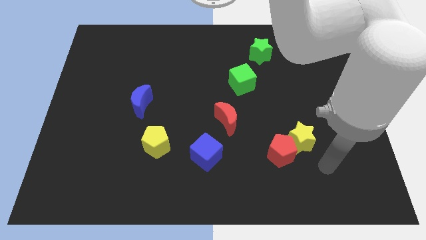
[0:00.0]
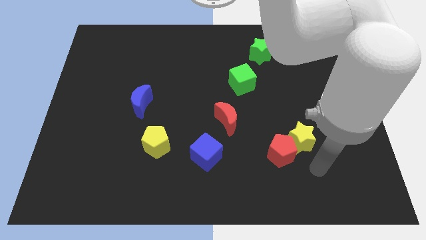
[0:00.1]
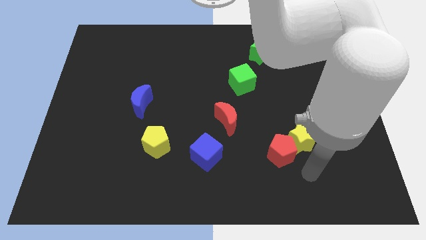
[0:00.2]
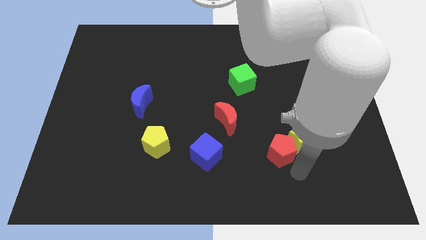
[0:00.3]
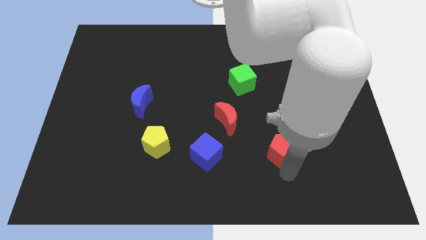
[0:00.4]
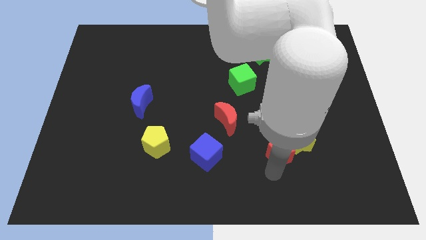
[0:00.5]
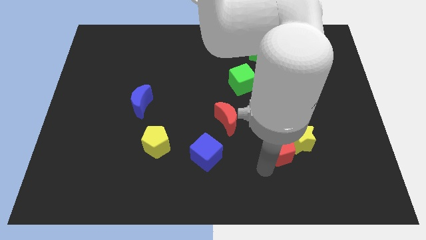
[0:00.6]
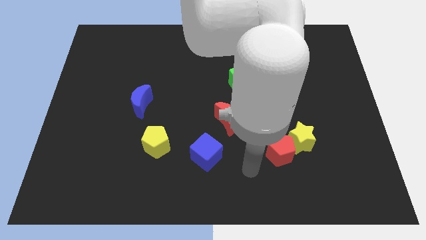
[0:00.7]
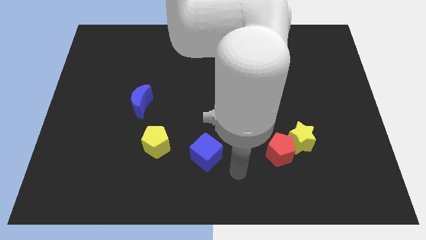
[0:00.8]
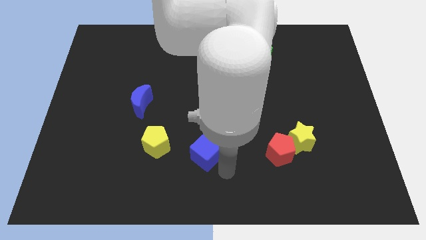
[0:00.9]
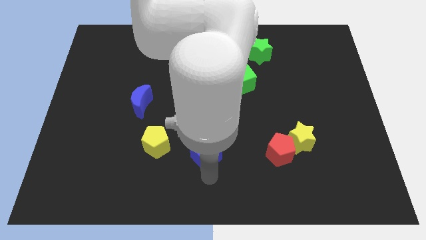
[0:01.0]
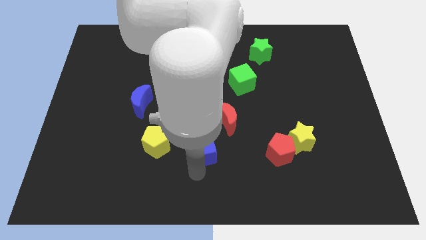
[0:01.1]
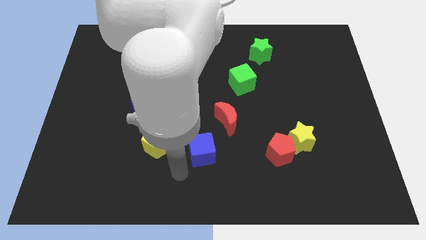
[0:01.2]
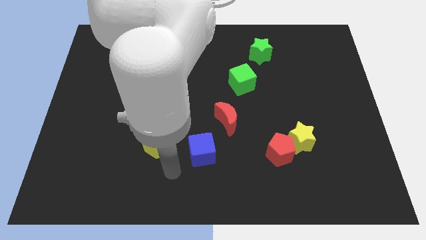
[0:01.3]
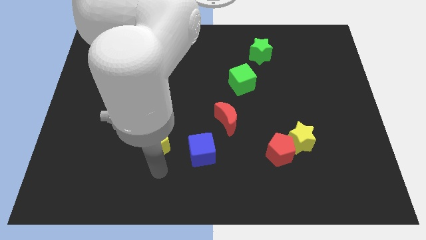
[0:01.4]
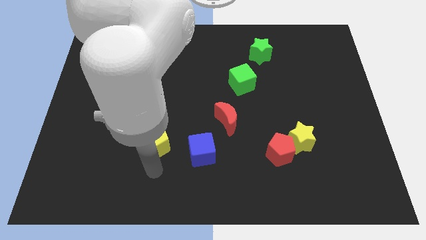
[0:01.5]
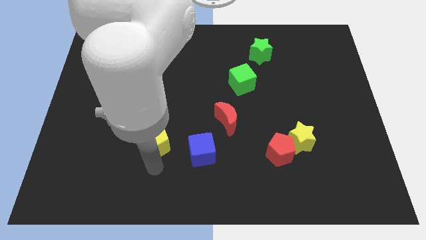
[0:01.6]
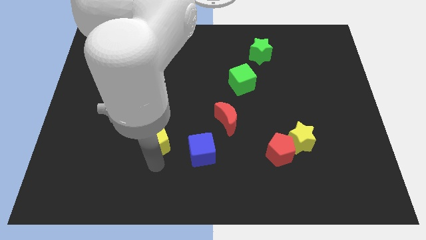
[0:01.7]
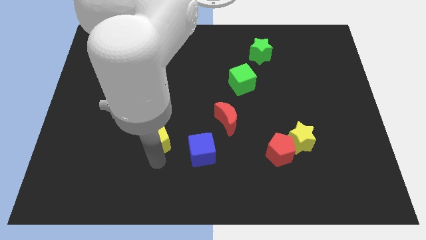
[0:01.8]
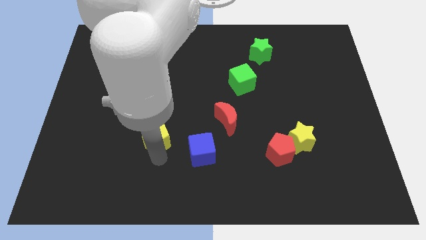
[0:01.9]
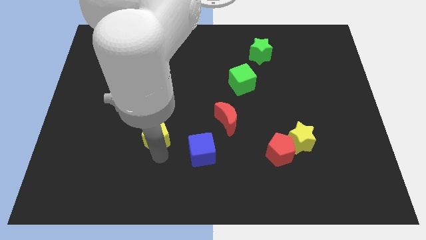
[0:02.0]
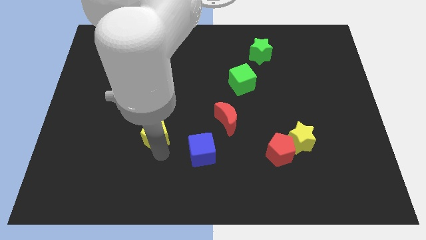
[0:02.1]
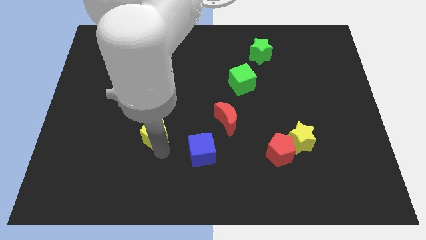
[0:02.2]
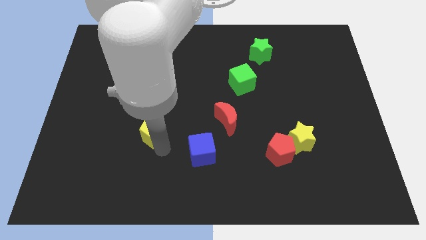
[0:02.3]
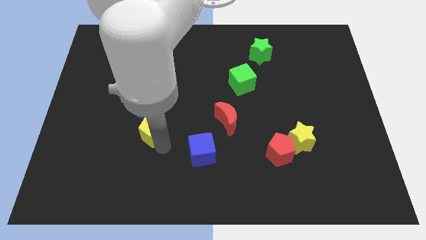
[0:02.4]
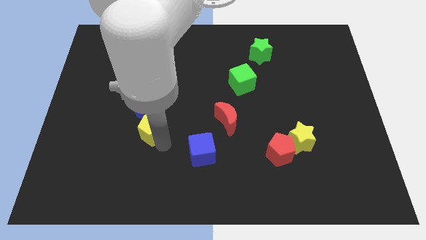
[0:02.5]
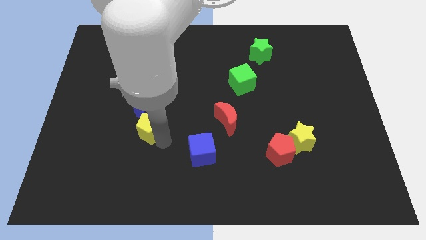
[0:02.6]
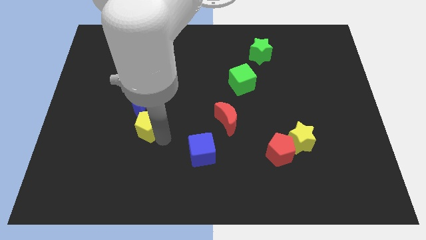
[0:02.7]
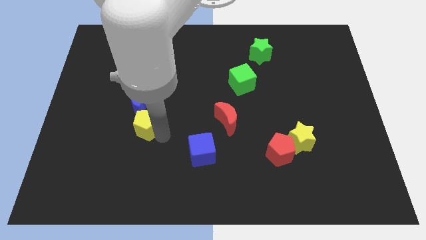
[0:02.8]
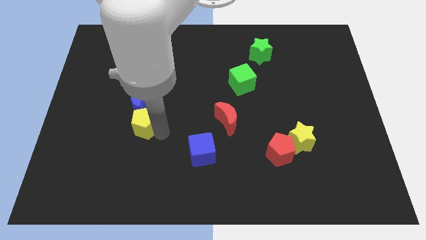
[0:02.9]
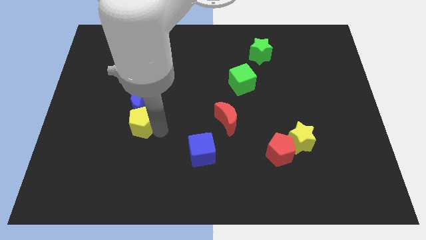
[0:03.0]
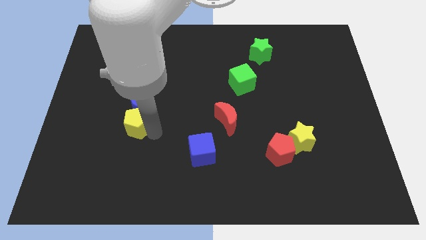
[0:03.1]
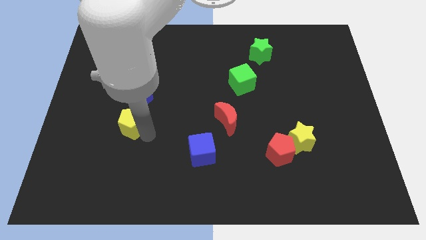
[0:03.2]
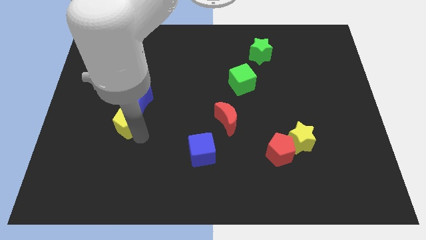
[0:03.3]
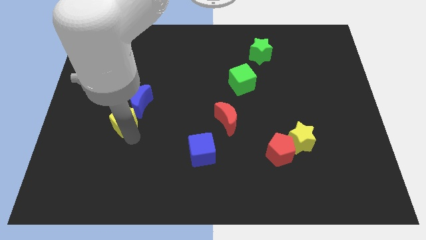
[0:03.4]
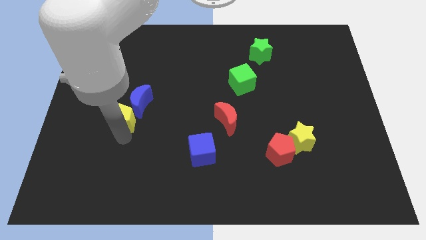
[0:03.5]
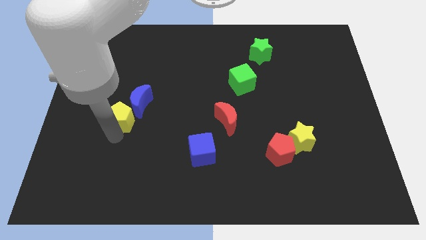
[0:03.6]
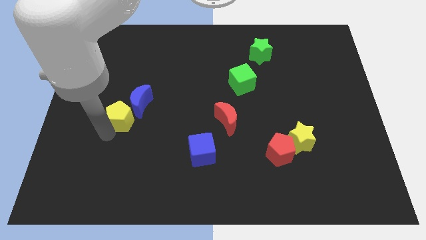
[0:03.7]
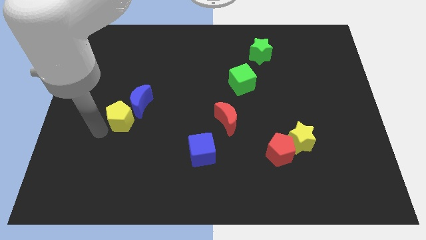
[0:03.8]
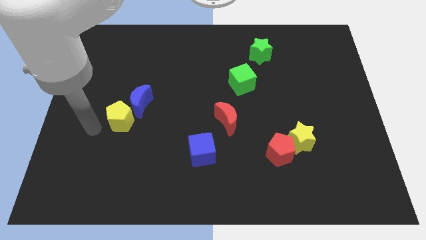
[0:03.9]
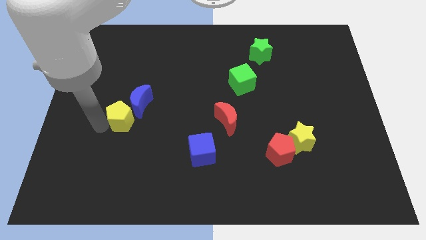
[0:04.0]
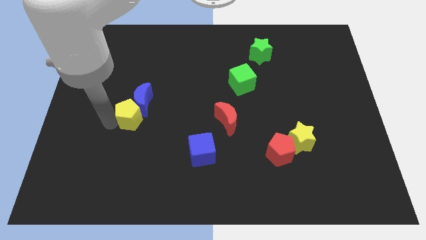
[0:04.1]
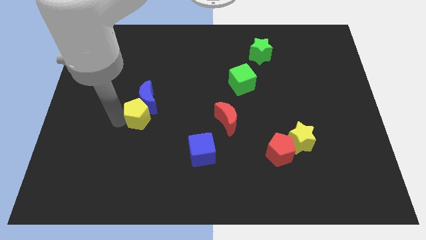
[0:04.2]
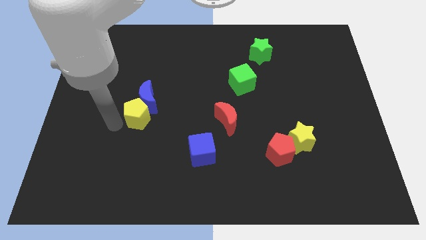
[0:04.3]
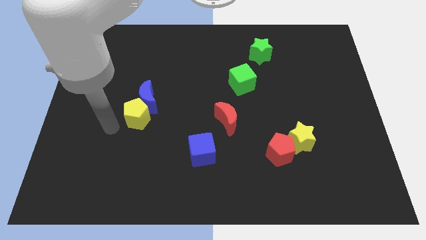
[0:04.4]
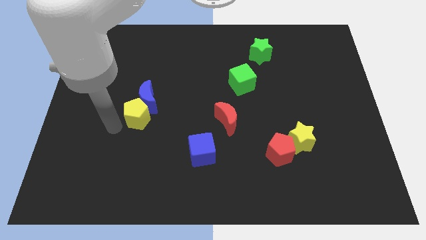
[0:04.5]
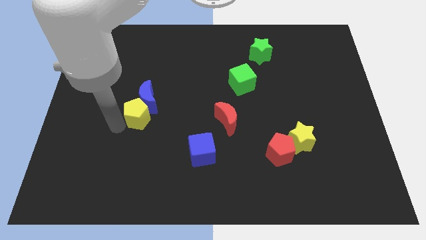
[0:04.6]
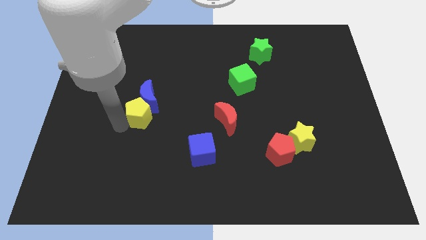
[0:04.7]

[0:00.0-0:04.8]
move the yellow pentagon up somewhat

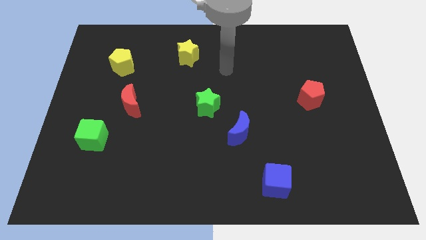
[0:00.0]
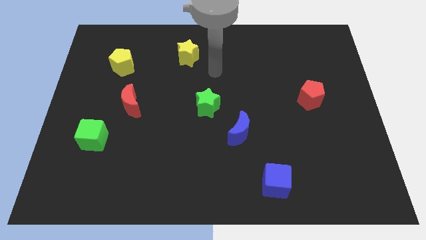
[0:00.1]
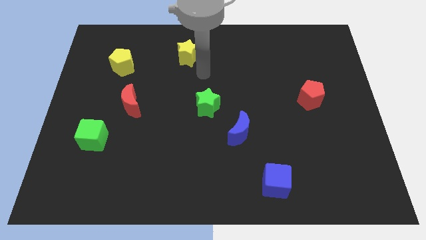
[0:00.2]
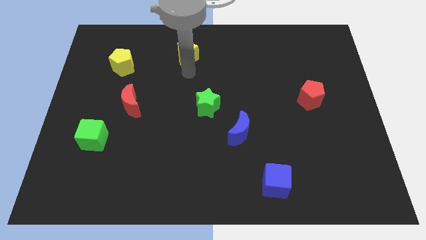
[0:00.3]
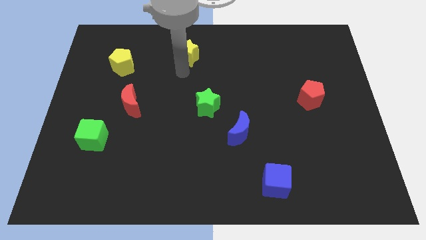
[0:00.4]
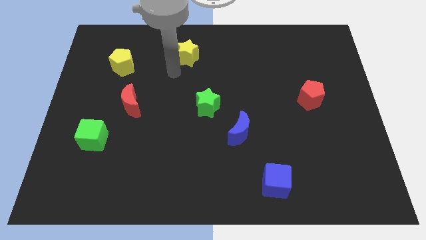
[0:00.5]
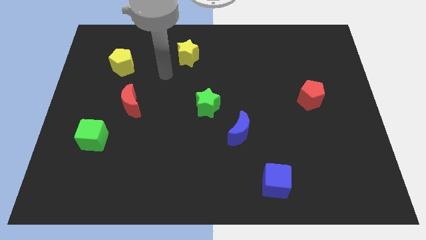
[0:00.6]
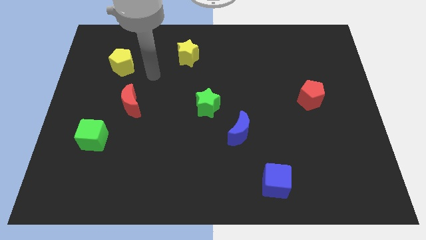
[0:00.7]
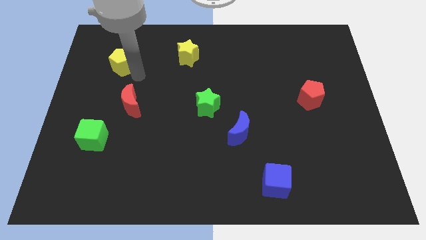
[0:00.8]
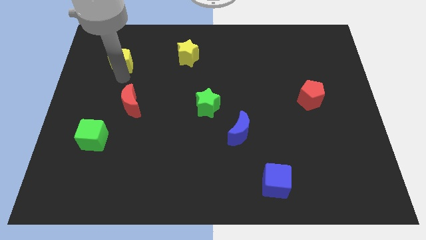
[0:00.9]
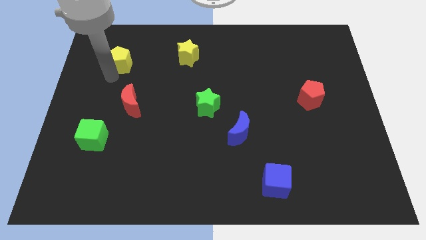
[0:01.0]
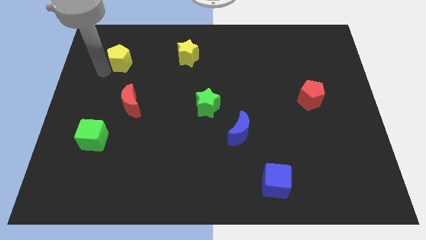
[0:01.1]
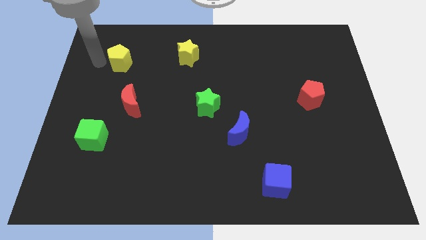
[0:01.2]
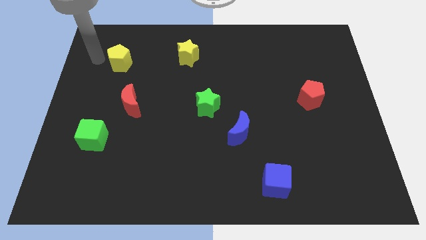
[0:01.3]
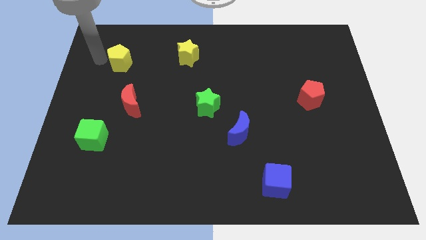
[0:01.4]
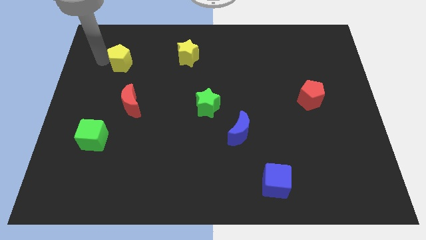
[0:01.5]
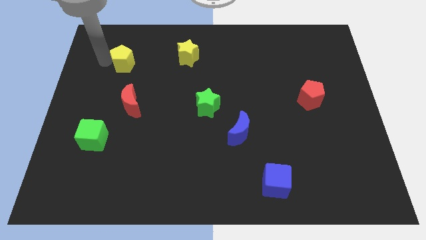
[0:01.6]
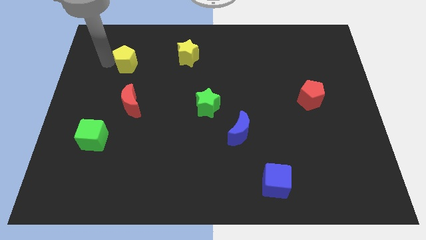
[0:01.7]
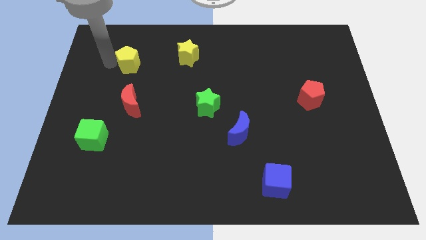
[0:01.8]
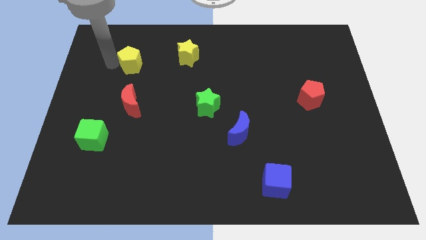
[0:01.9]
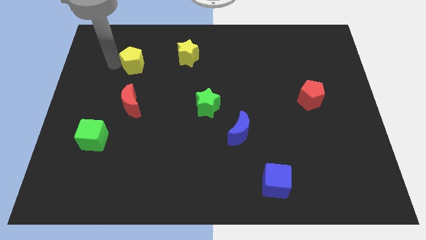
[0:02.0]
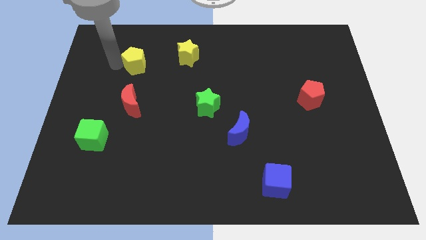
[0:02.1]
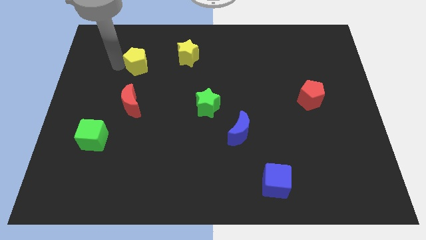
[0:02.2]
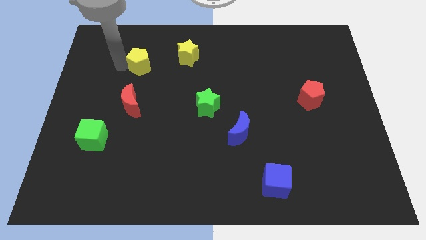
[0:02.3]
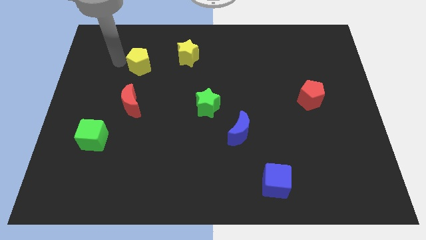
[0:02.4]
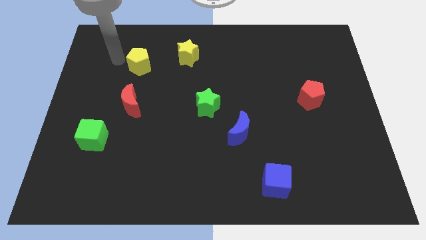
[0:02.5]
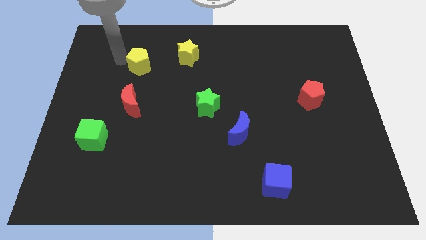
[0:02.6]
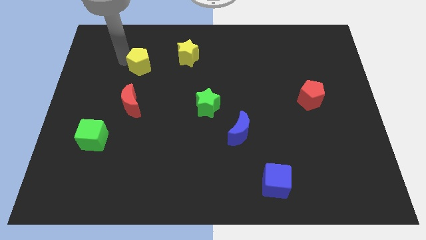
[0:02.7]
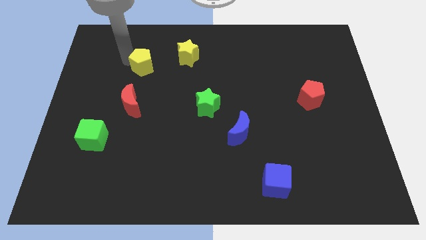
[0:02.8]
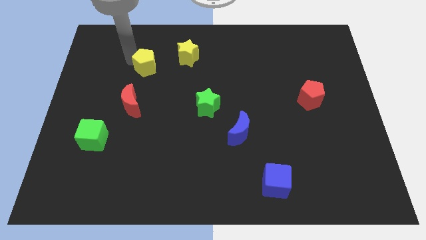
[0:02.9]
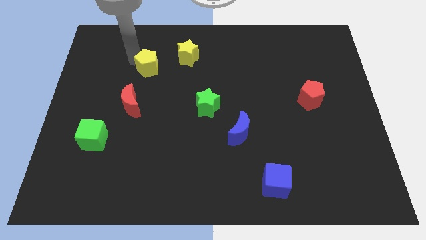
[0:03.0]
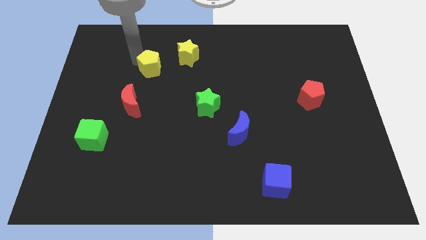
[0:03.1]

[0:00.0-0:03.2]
push the yellow pentagon to the right a little

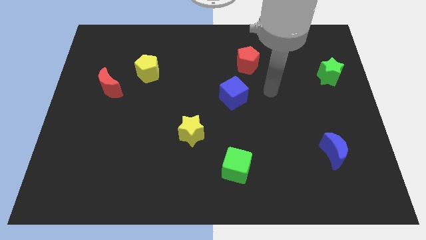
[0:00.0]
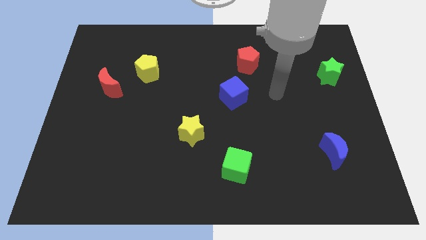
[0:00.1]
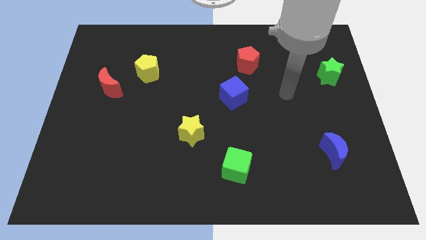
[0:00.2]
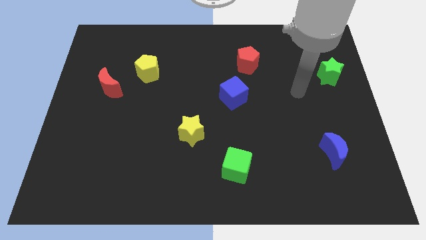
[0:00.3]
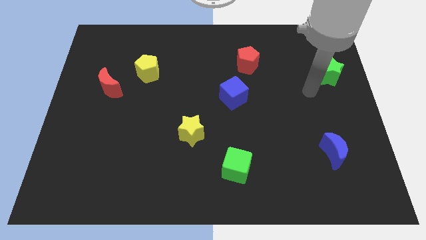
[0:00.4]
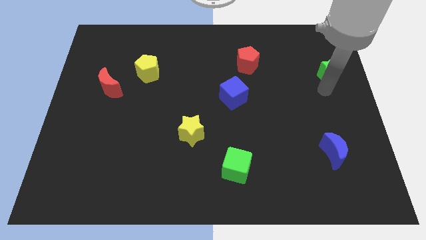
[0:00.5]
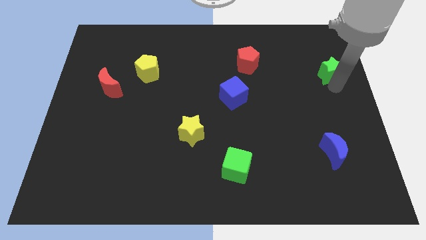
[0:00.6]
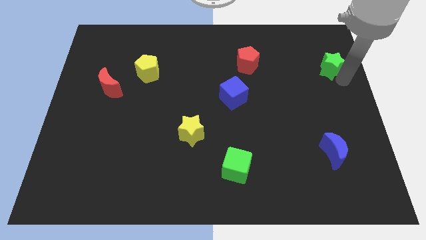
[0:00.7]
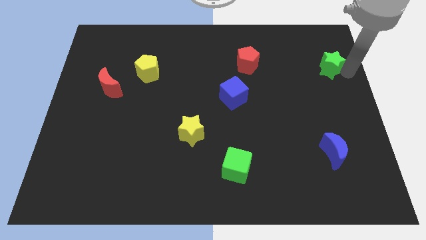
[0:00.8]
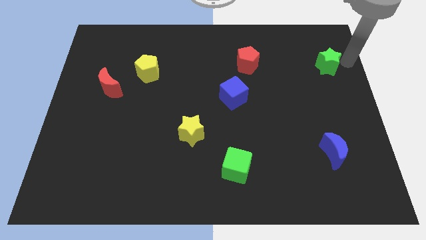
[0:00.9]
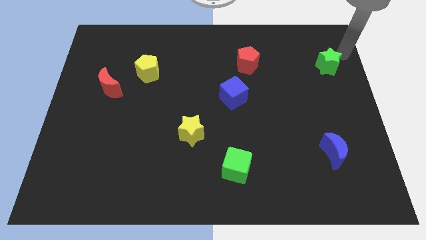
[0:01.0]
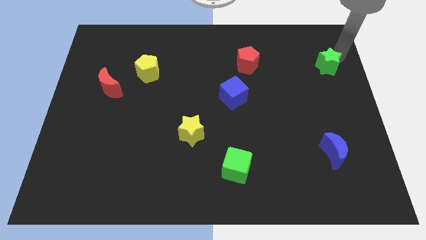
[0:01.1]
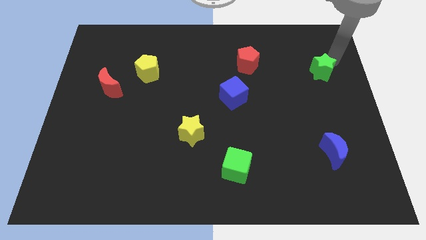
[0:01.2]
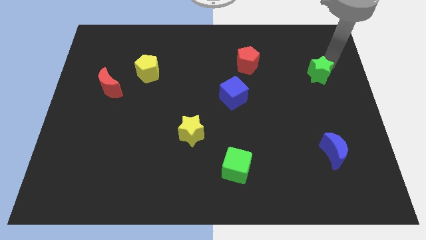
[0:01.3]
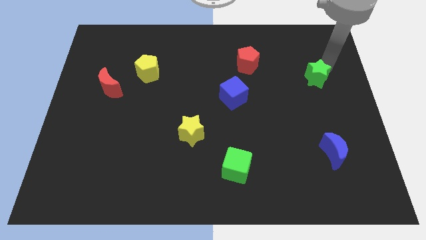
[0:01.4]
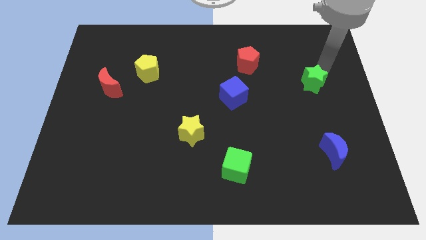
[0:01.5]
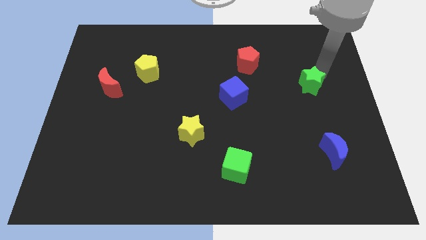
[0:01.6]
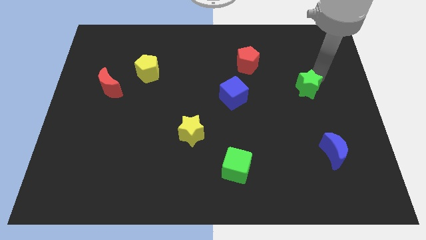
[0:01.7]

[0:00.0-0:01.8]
move the green star a little downwards and then to the left
